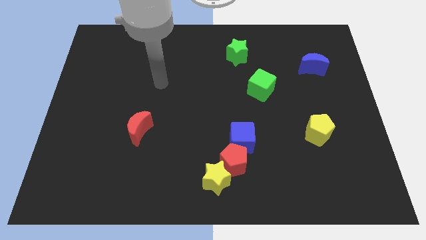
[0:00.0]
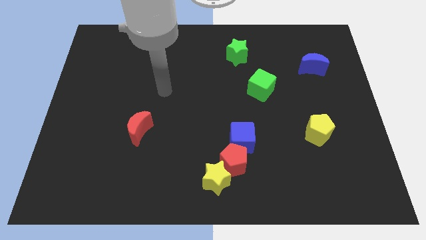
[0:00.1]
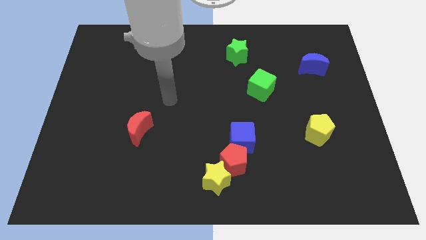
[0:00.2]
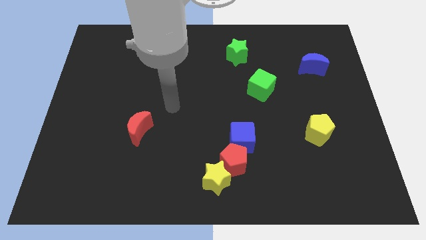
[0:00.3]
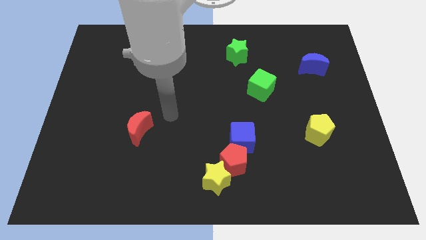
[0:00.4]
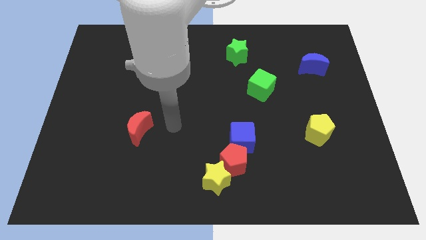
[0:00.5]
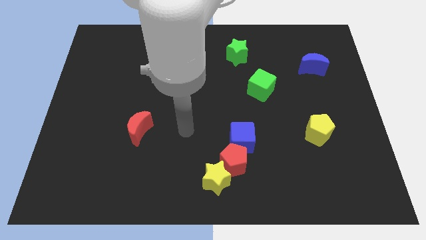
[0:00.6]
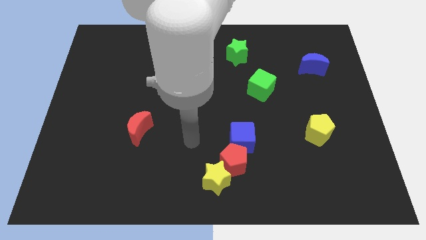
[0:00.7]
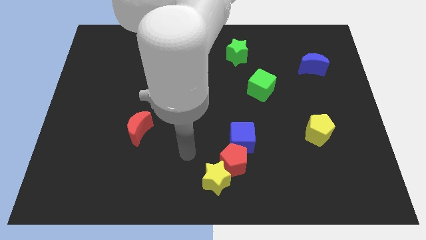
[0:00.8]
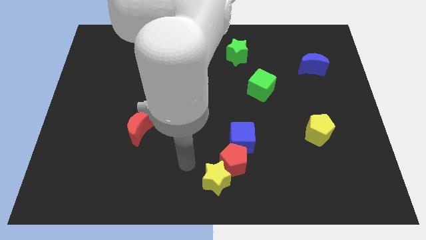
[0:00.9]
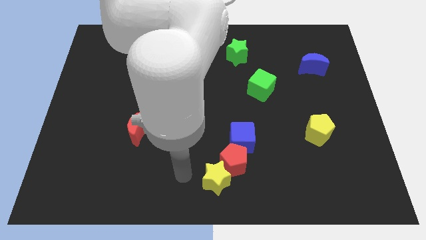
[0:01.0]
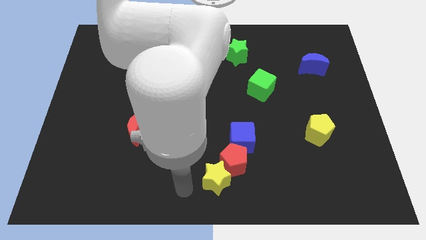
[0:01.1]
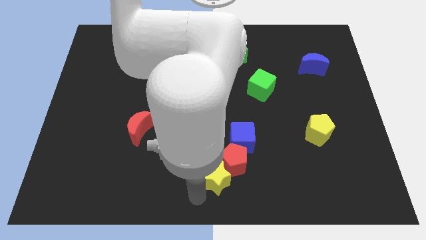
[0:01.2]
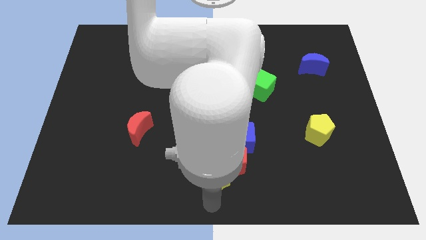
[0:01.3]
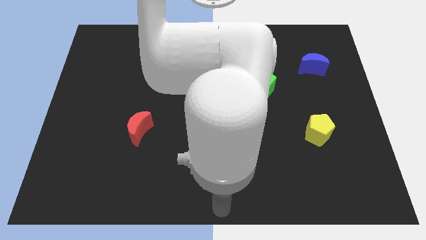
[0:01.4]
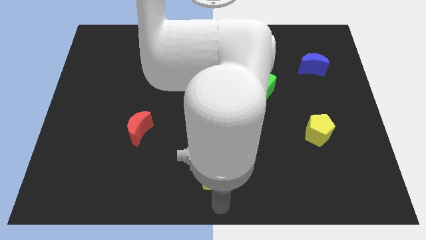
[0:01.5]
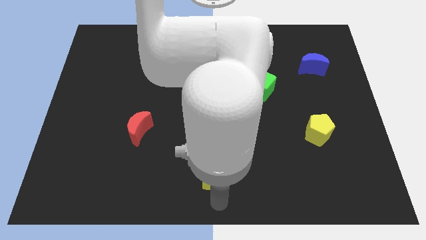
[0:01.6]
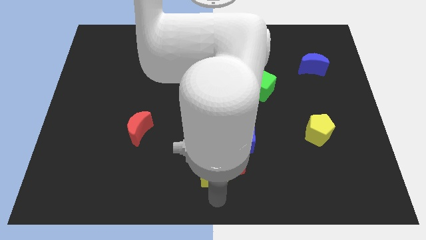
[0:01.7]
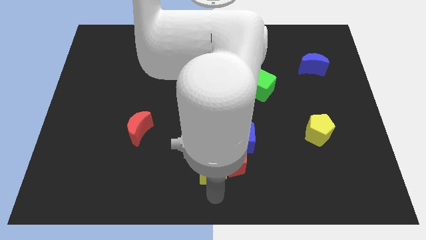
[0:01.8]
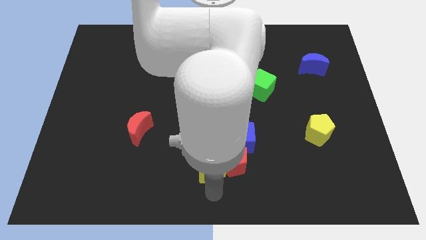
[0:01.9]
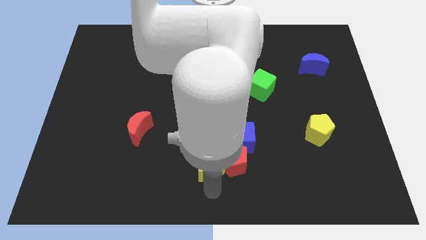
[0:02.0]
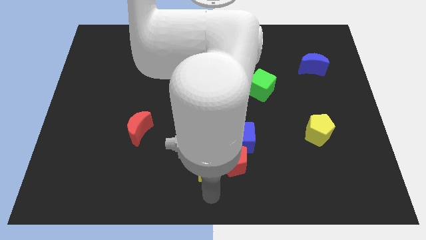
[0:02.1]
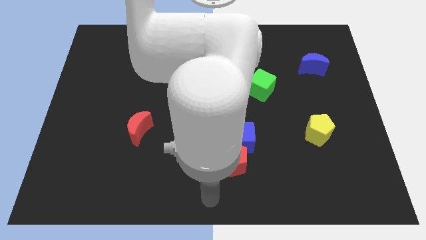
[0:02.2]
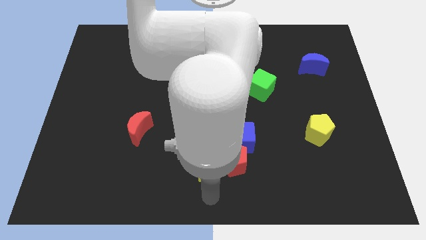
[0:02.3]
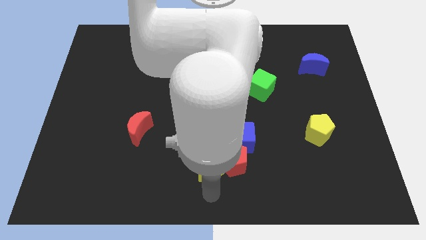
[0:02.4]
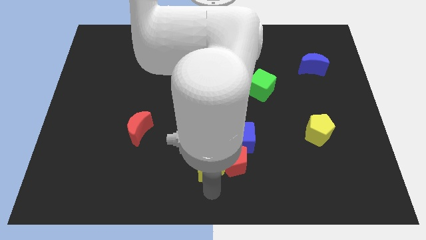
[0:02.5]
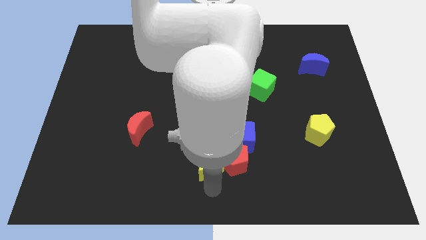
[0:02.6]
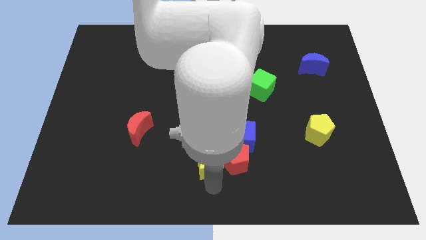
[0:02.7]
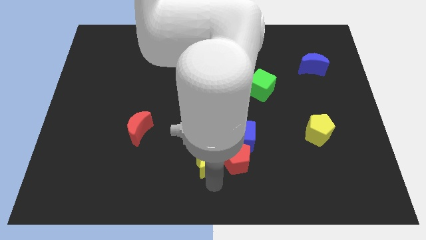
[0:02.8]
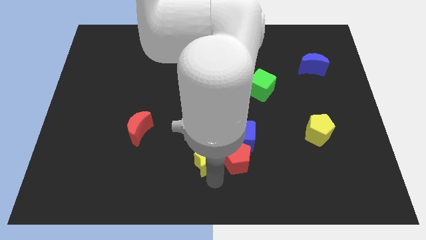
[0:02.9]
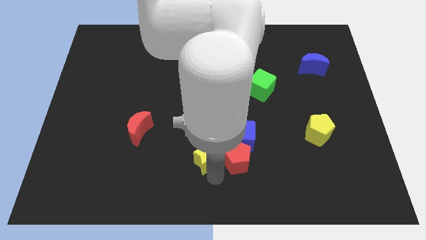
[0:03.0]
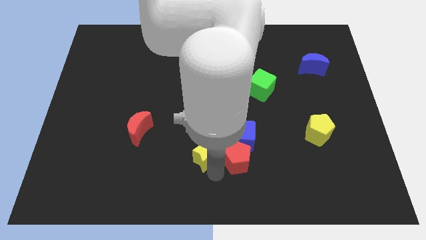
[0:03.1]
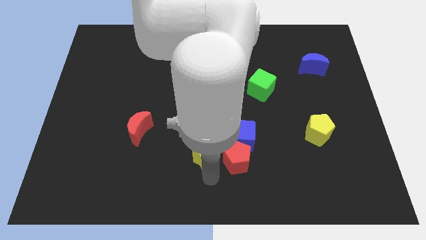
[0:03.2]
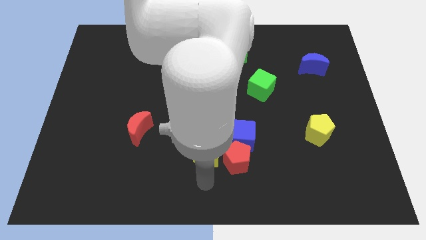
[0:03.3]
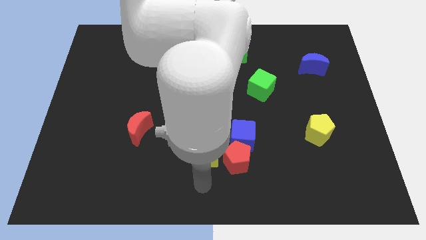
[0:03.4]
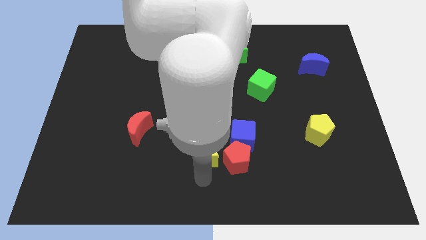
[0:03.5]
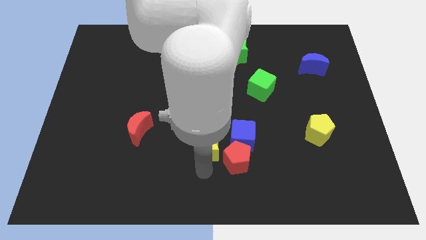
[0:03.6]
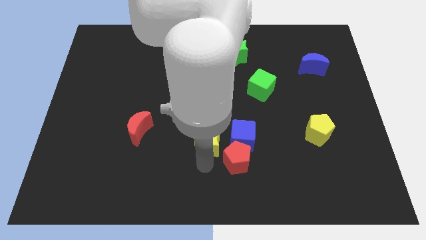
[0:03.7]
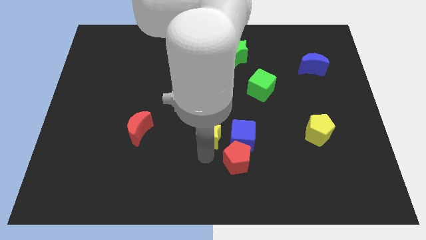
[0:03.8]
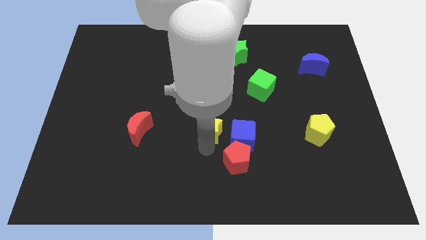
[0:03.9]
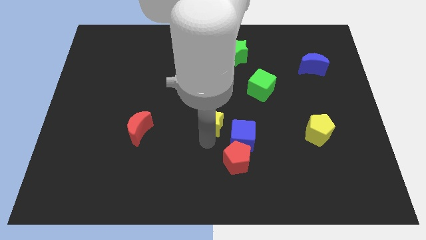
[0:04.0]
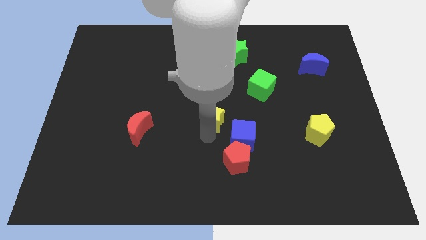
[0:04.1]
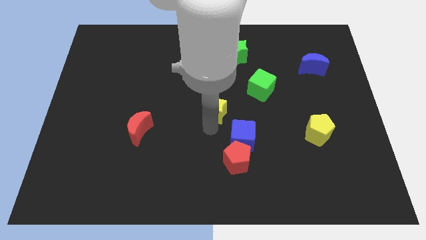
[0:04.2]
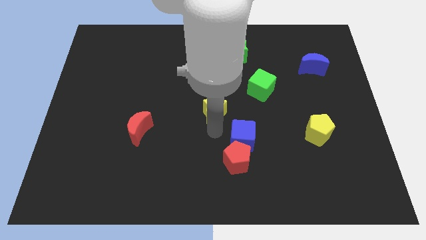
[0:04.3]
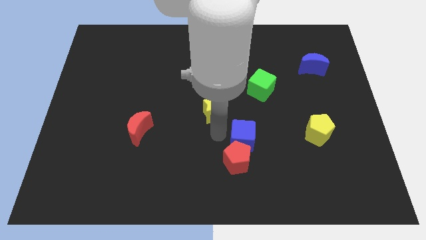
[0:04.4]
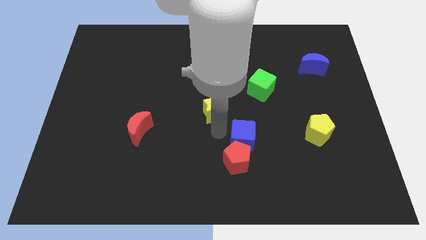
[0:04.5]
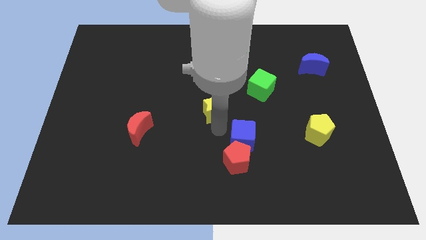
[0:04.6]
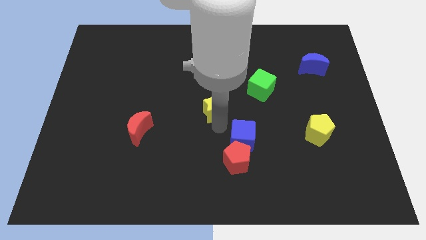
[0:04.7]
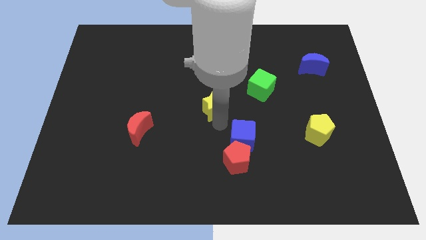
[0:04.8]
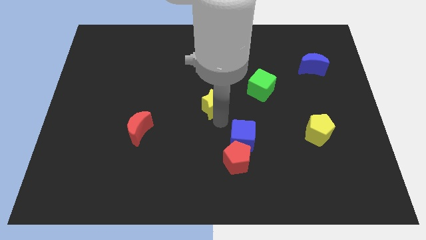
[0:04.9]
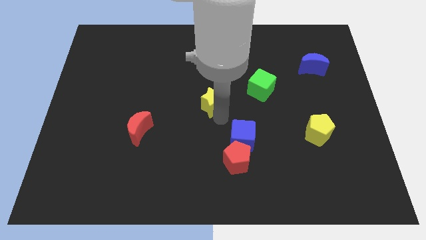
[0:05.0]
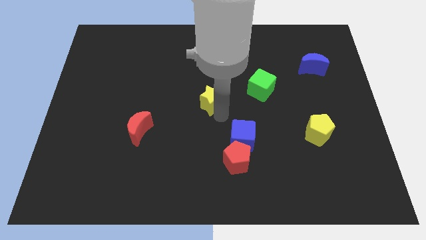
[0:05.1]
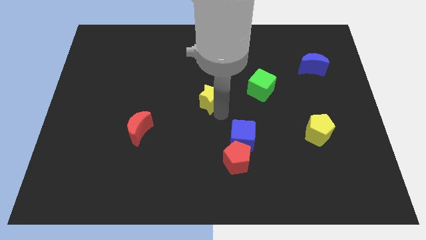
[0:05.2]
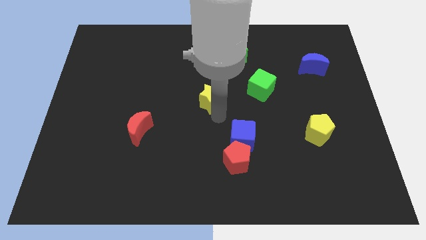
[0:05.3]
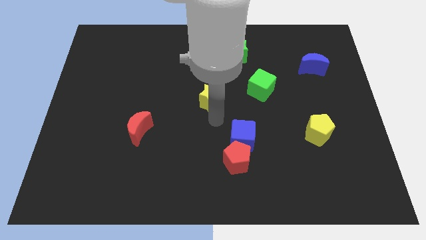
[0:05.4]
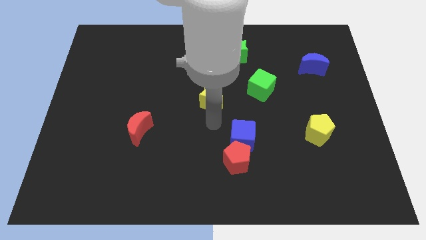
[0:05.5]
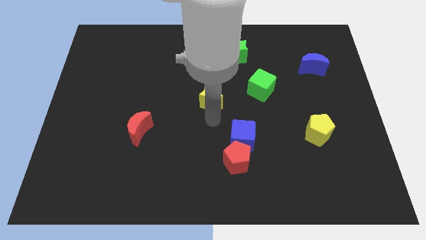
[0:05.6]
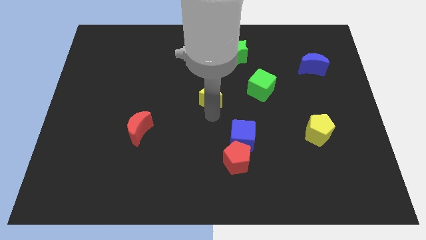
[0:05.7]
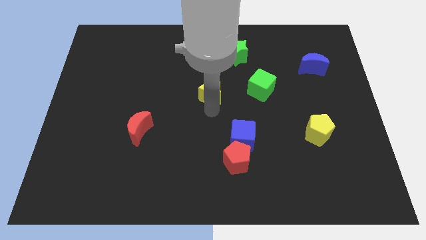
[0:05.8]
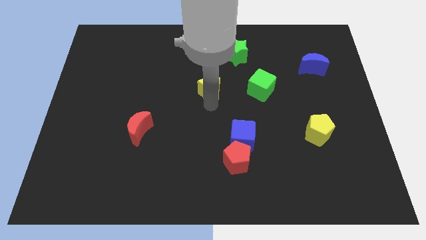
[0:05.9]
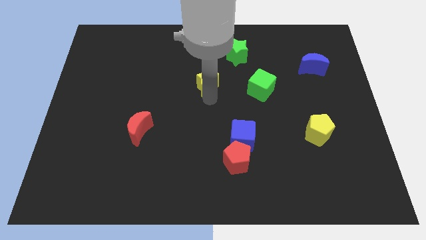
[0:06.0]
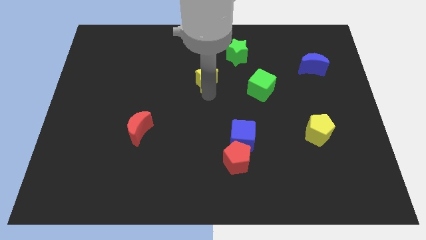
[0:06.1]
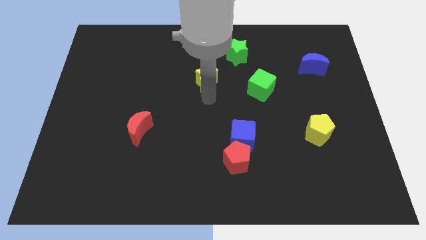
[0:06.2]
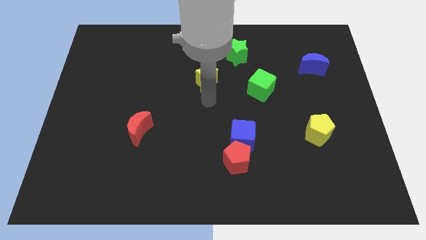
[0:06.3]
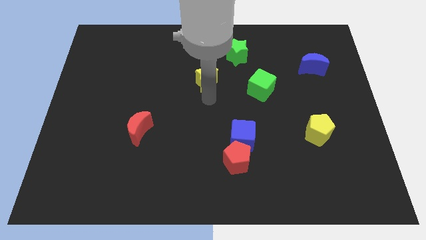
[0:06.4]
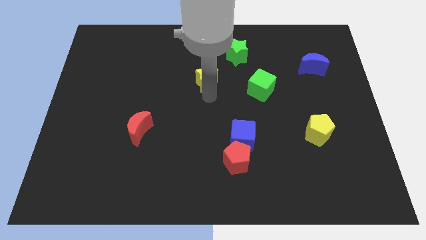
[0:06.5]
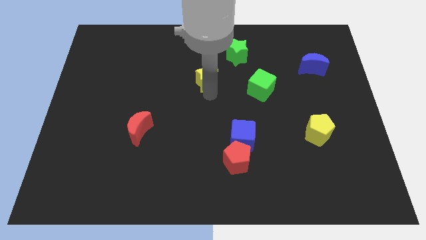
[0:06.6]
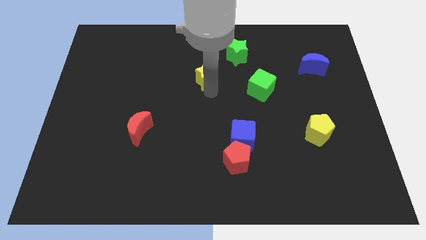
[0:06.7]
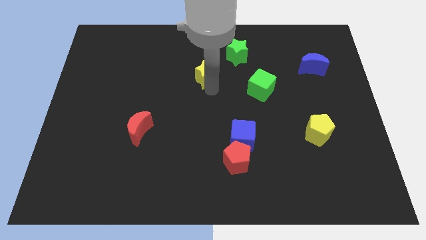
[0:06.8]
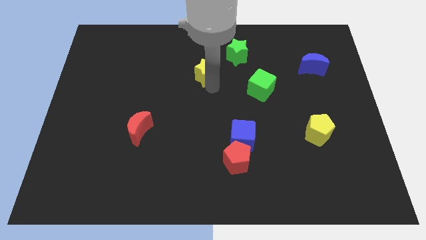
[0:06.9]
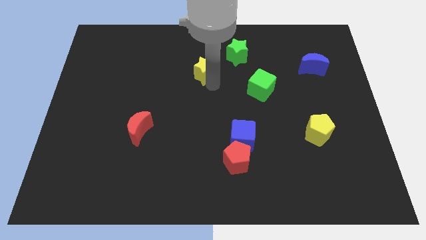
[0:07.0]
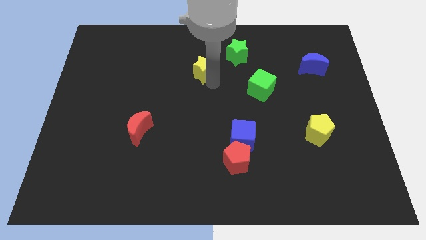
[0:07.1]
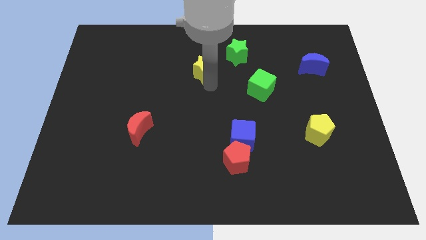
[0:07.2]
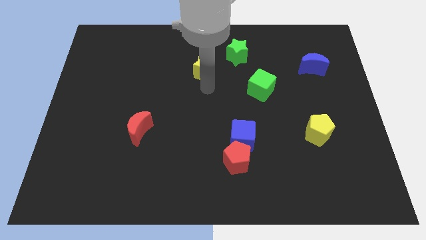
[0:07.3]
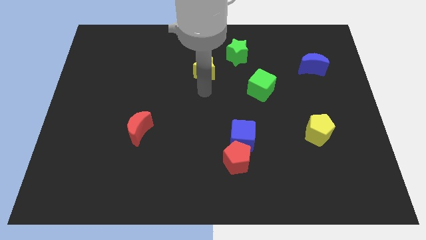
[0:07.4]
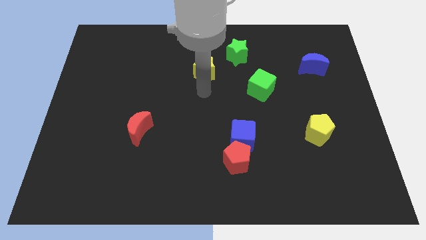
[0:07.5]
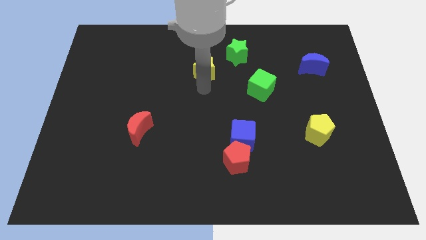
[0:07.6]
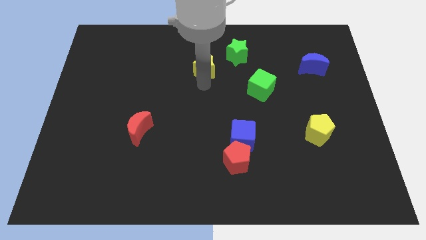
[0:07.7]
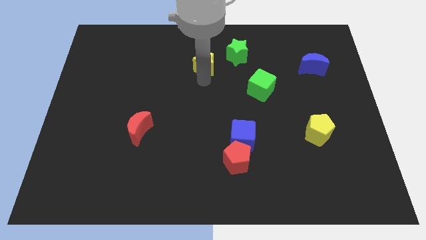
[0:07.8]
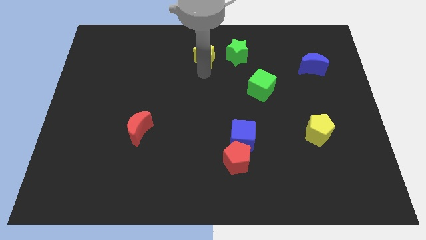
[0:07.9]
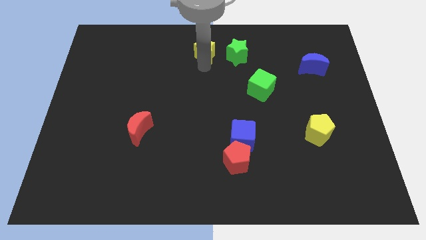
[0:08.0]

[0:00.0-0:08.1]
slide the yellow star to the towards your base
